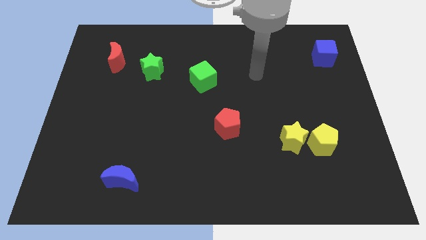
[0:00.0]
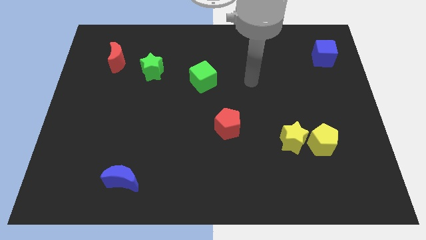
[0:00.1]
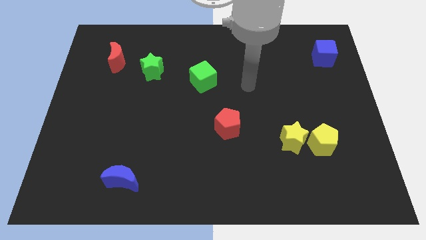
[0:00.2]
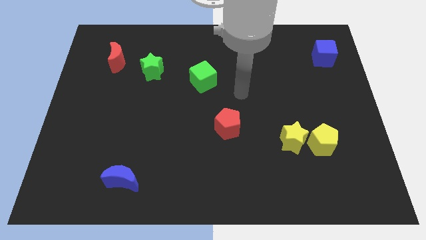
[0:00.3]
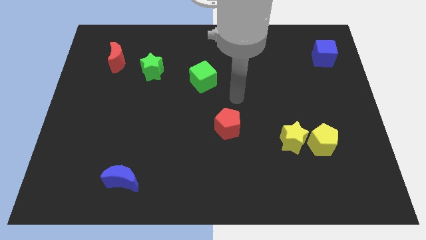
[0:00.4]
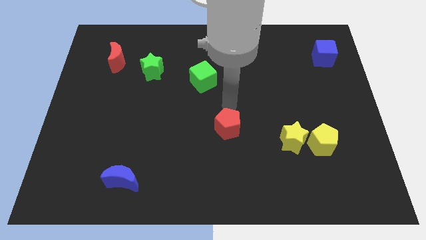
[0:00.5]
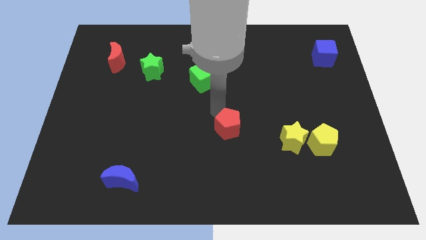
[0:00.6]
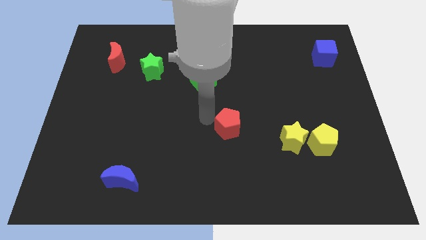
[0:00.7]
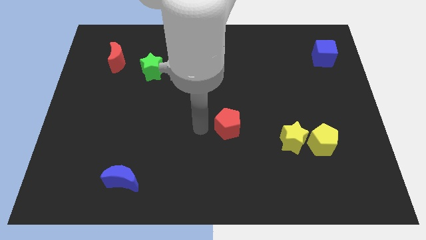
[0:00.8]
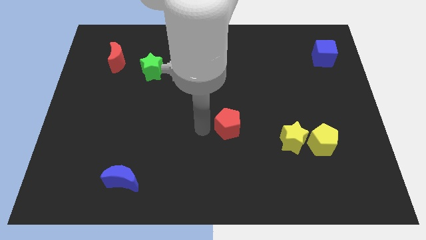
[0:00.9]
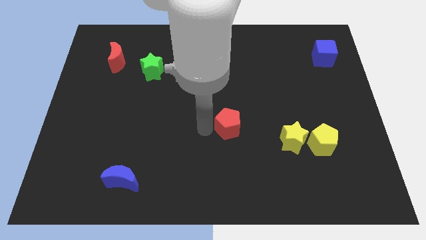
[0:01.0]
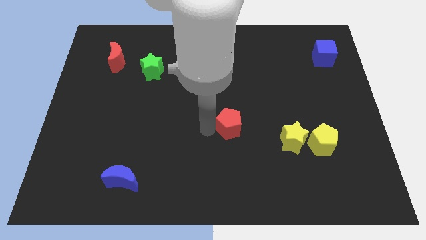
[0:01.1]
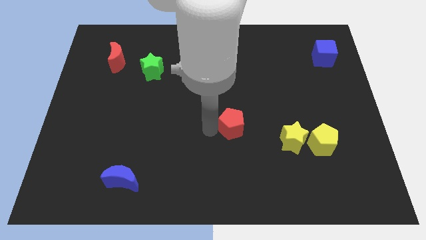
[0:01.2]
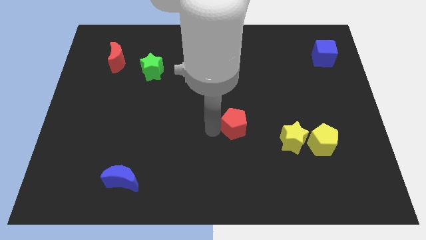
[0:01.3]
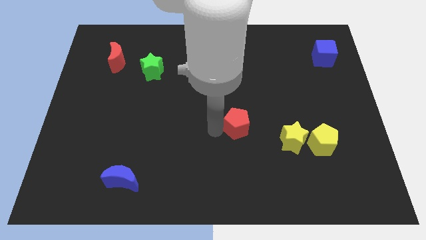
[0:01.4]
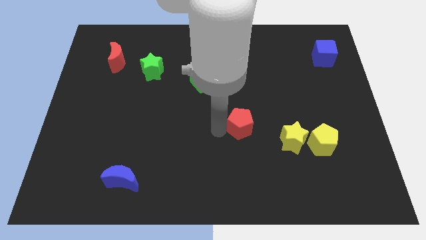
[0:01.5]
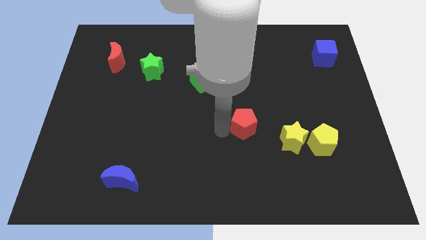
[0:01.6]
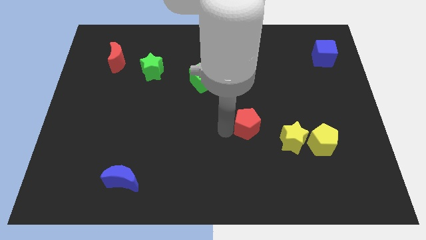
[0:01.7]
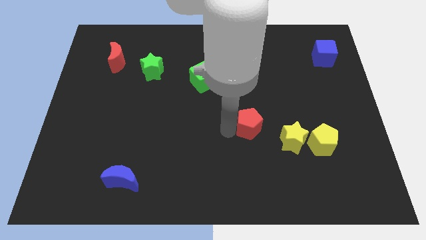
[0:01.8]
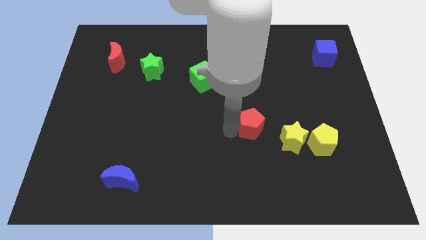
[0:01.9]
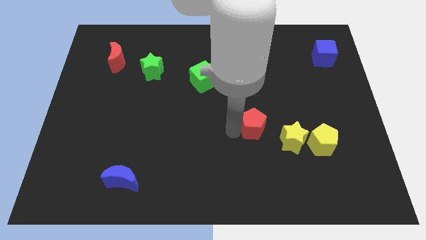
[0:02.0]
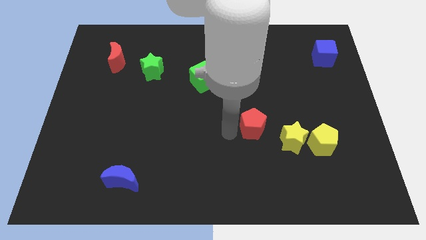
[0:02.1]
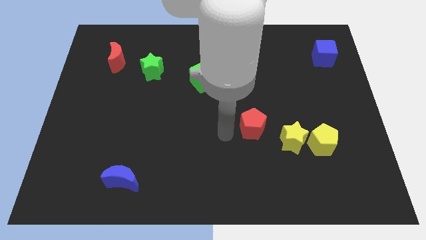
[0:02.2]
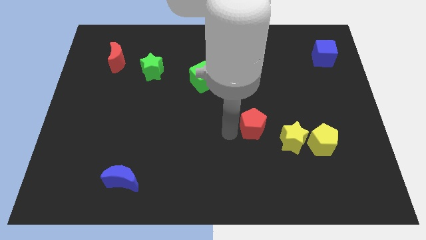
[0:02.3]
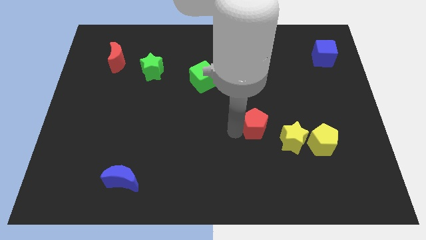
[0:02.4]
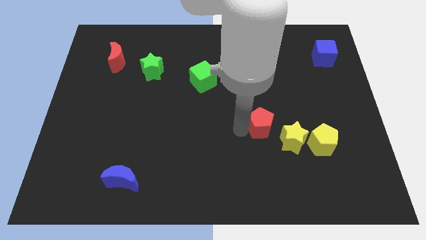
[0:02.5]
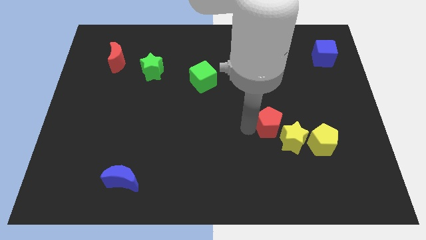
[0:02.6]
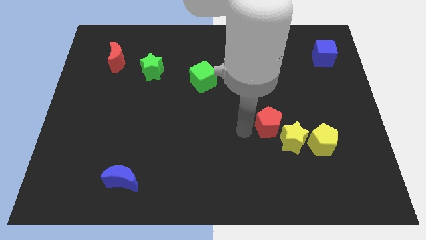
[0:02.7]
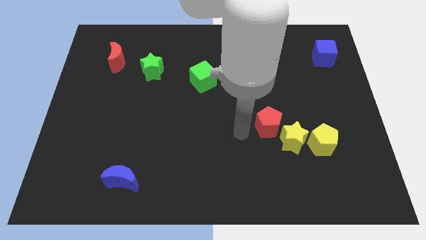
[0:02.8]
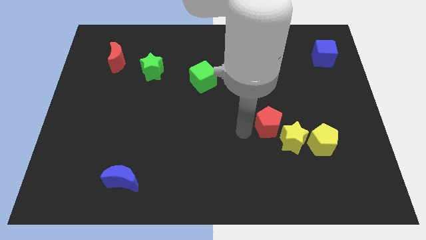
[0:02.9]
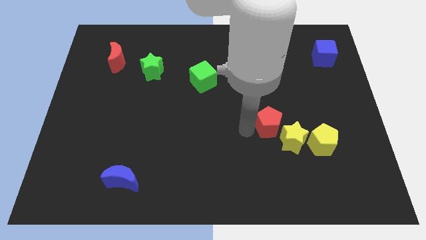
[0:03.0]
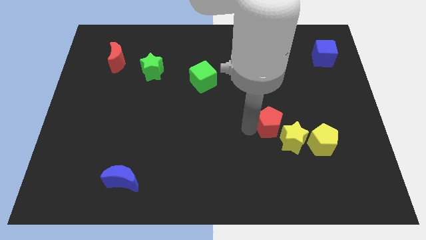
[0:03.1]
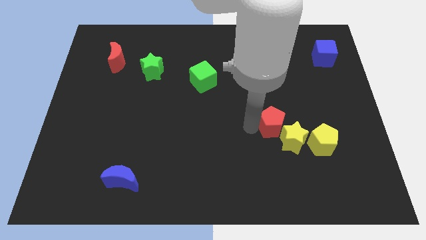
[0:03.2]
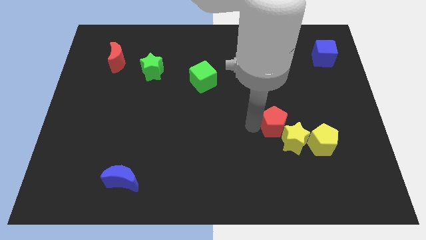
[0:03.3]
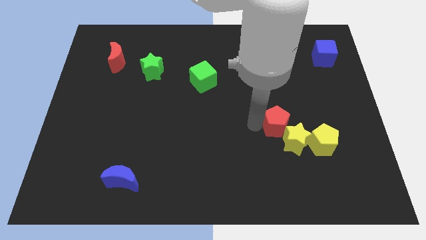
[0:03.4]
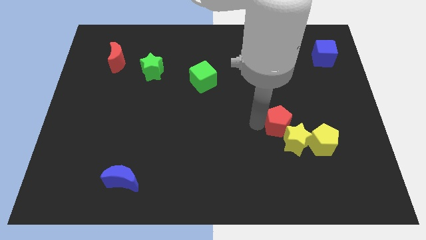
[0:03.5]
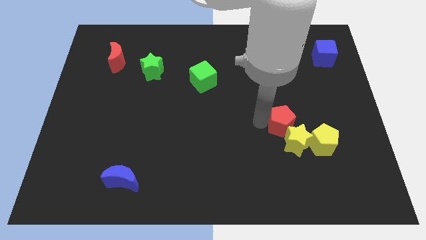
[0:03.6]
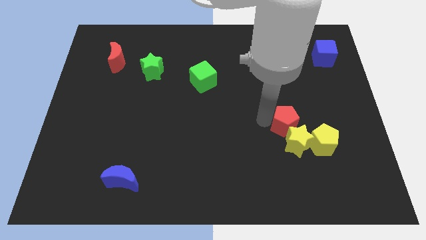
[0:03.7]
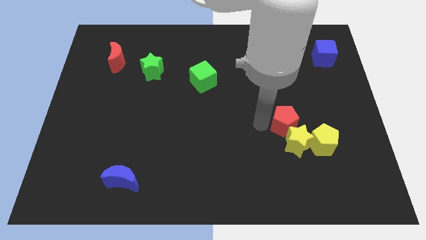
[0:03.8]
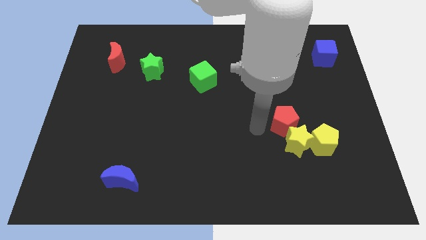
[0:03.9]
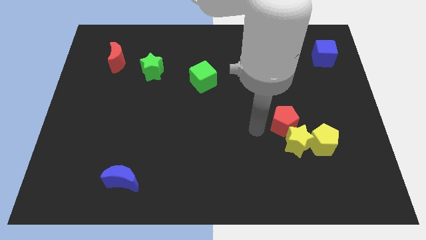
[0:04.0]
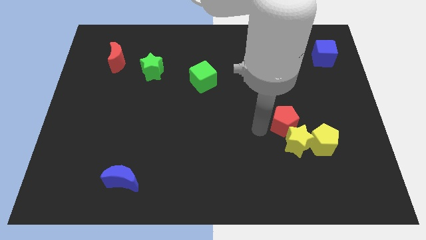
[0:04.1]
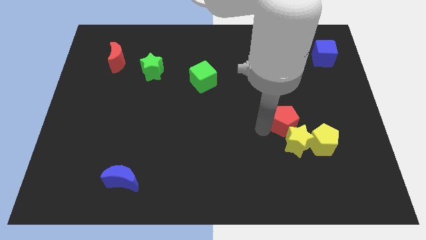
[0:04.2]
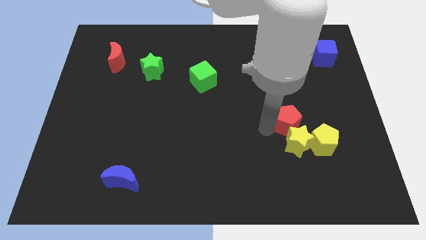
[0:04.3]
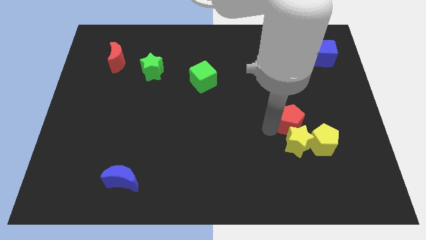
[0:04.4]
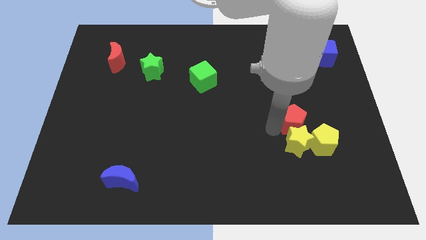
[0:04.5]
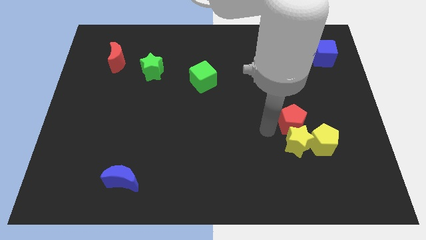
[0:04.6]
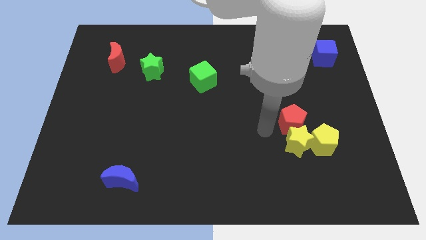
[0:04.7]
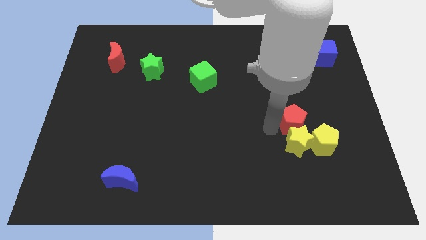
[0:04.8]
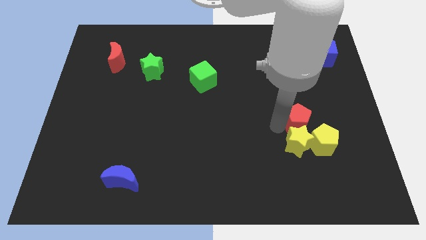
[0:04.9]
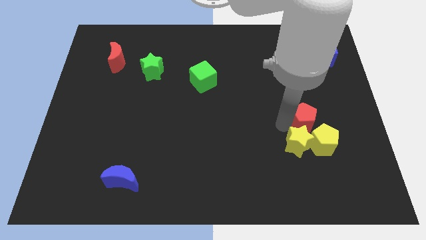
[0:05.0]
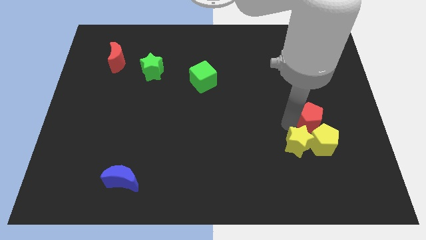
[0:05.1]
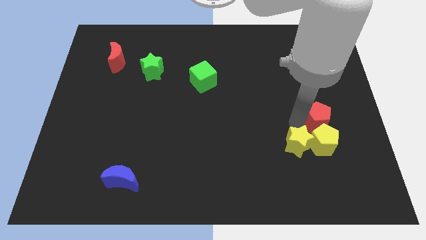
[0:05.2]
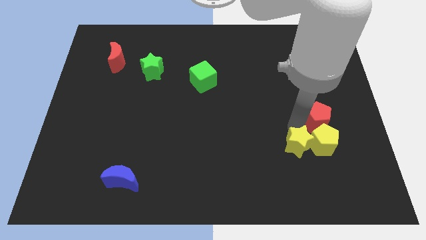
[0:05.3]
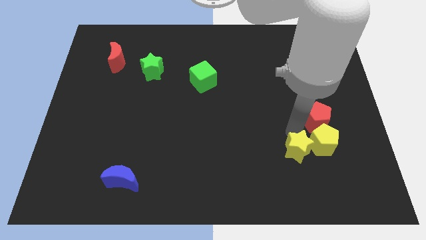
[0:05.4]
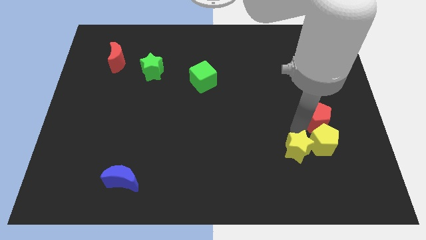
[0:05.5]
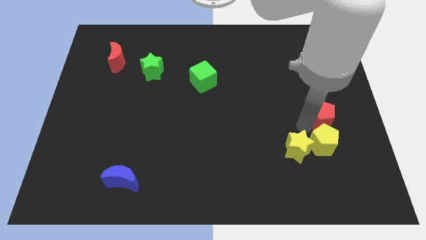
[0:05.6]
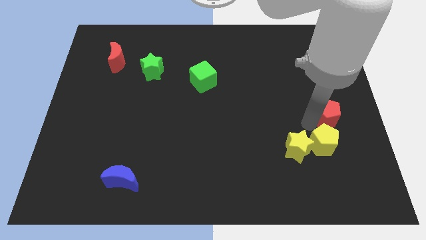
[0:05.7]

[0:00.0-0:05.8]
put the red pentagon to the right side
